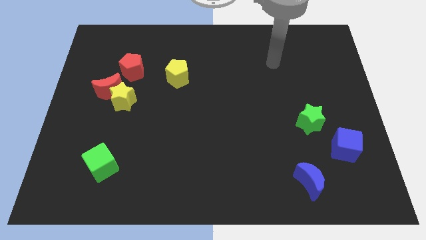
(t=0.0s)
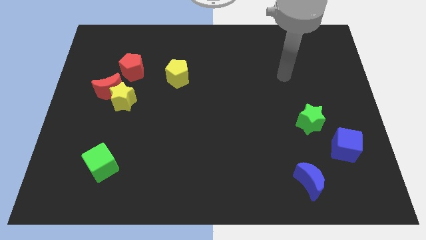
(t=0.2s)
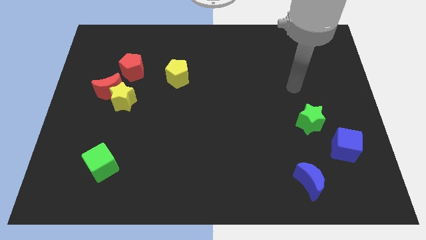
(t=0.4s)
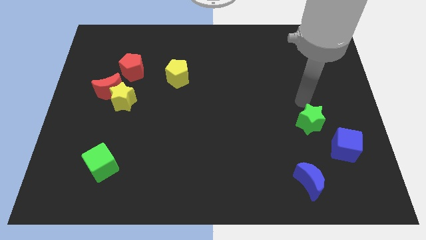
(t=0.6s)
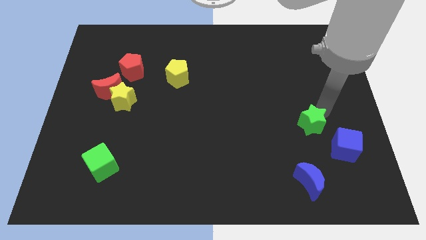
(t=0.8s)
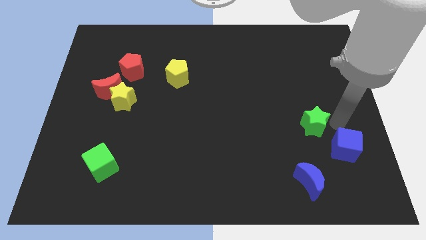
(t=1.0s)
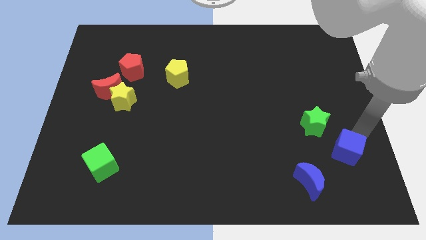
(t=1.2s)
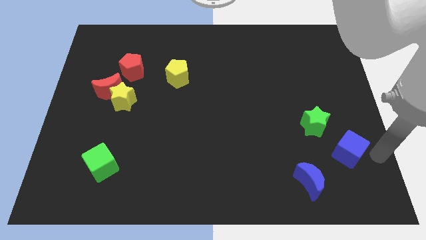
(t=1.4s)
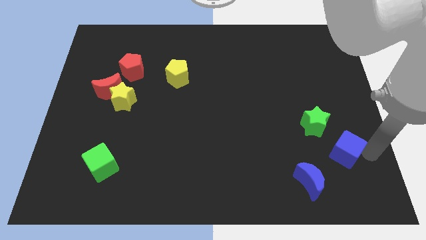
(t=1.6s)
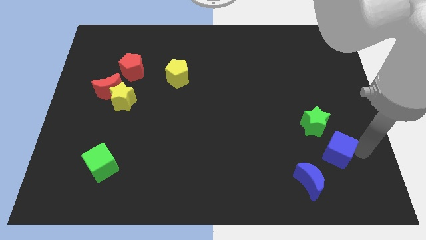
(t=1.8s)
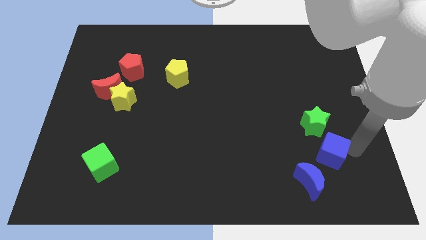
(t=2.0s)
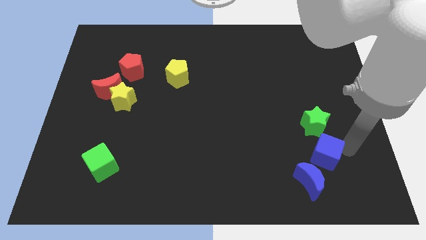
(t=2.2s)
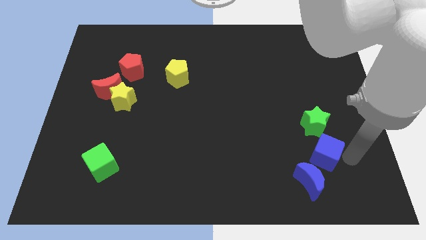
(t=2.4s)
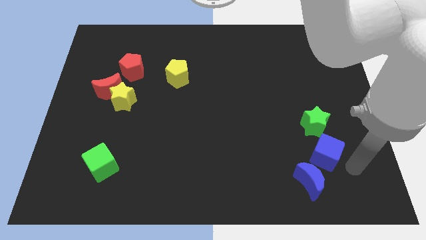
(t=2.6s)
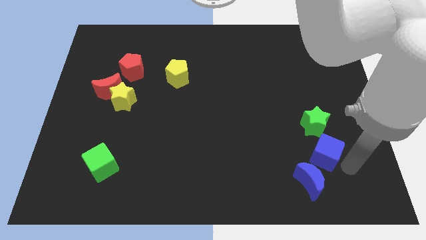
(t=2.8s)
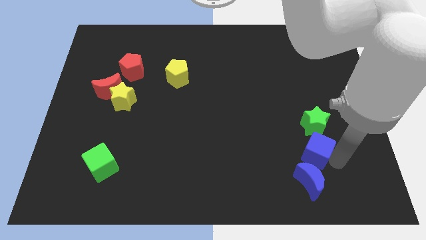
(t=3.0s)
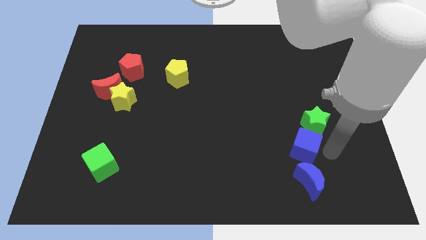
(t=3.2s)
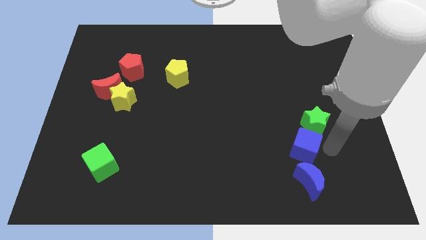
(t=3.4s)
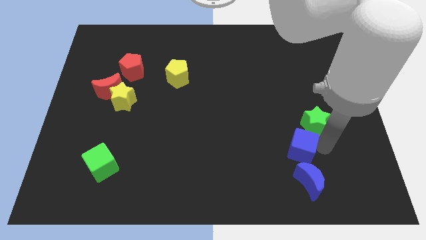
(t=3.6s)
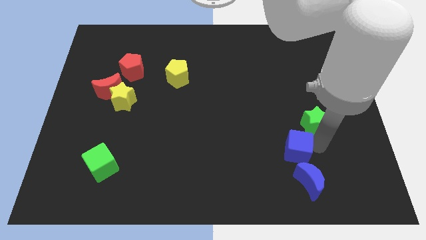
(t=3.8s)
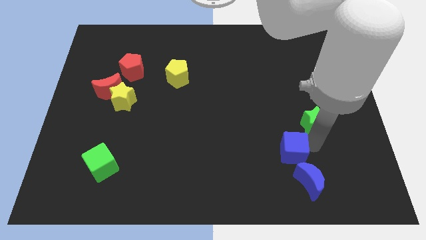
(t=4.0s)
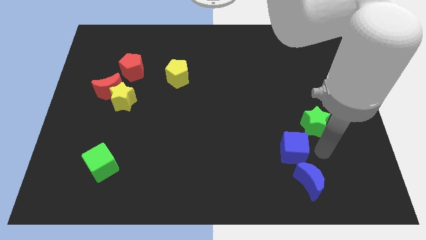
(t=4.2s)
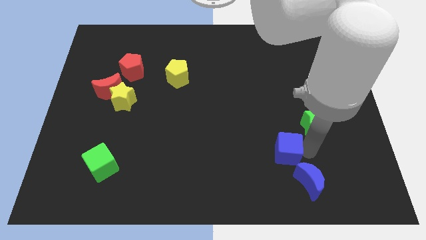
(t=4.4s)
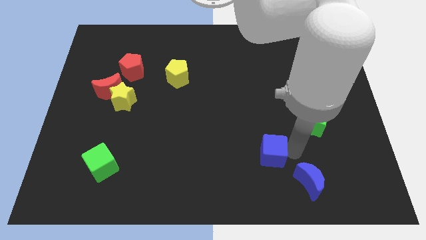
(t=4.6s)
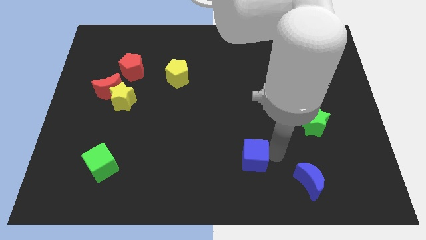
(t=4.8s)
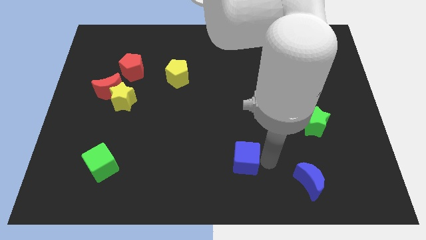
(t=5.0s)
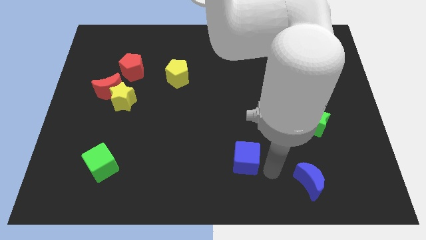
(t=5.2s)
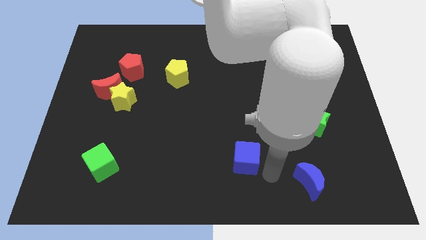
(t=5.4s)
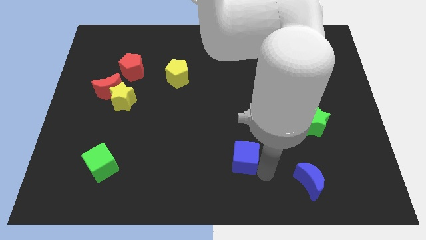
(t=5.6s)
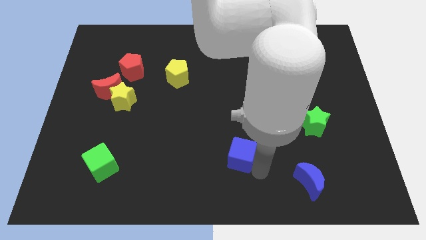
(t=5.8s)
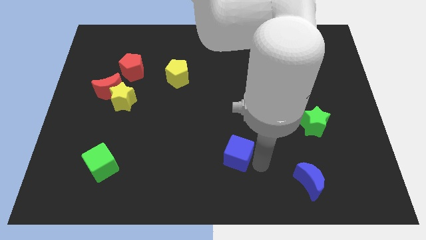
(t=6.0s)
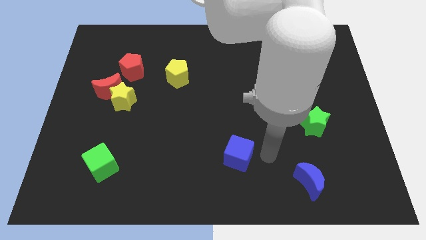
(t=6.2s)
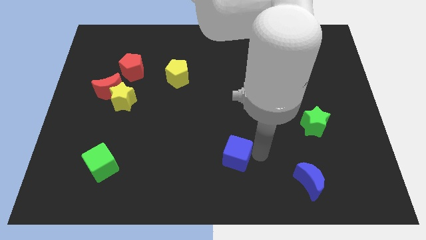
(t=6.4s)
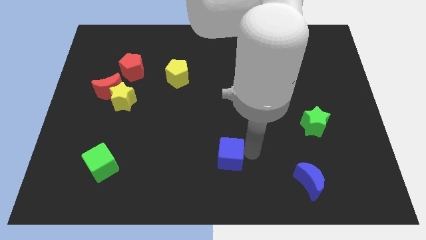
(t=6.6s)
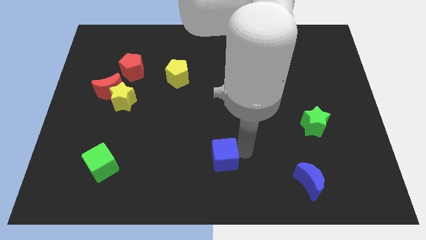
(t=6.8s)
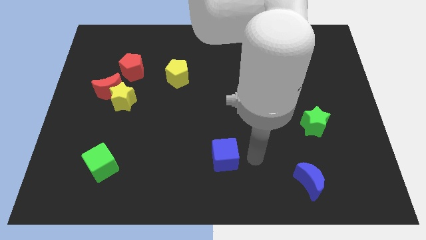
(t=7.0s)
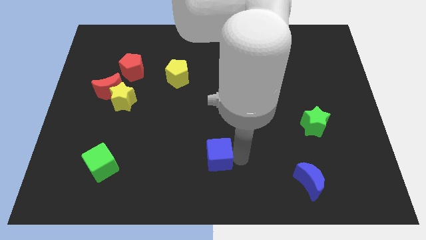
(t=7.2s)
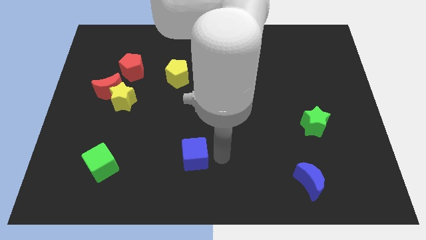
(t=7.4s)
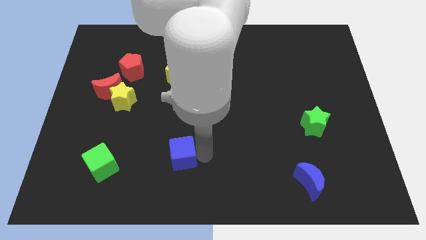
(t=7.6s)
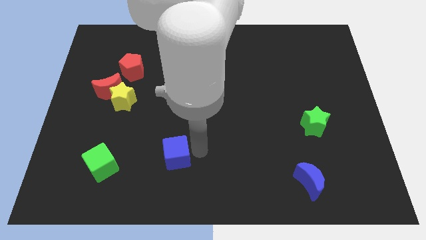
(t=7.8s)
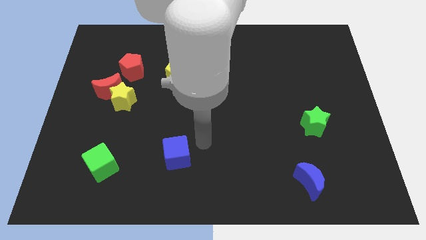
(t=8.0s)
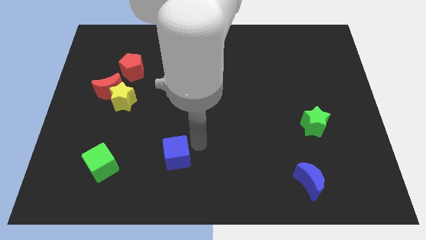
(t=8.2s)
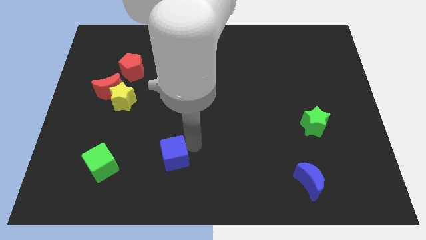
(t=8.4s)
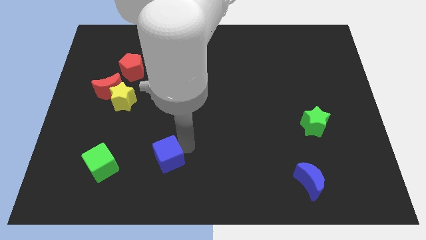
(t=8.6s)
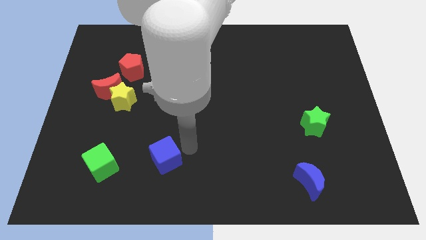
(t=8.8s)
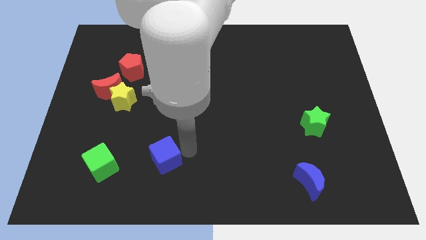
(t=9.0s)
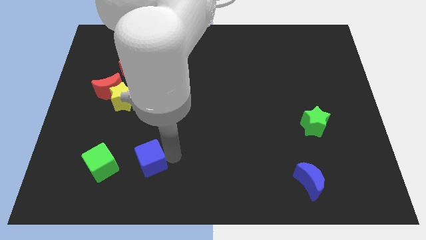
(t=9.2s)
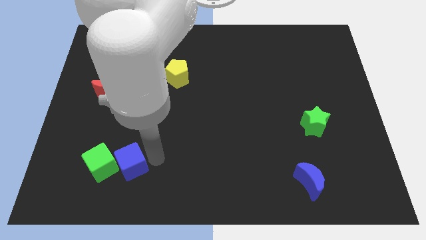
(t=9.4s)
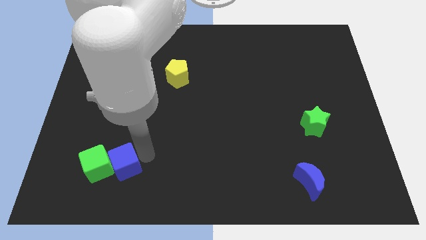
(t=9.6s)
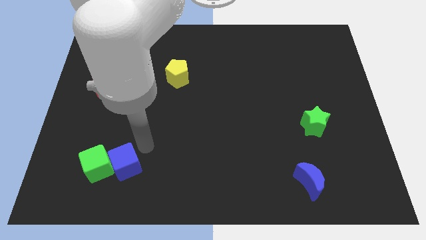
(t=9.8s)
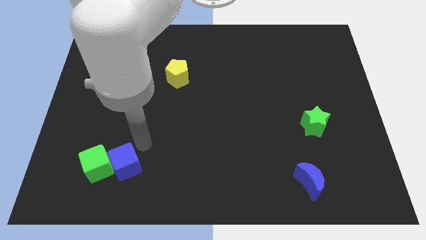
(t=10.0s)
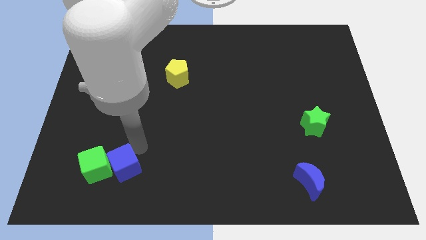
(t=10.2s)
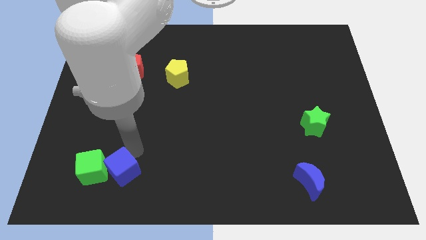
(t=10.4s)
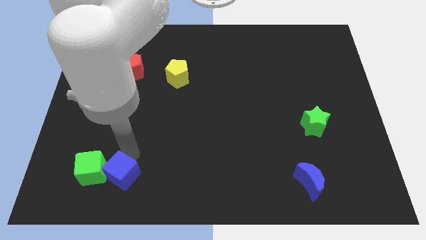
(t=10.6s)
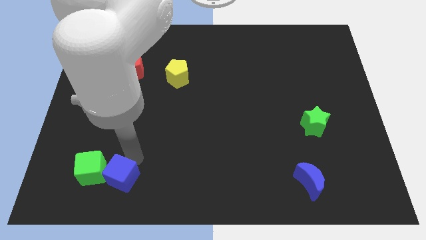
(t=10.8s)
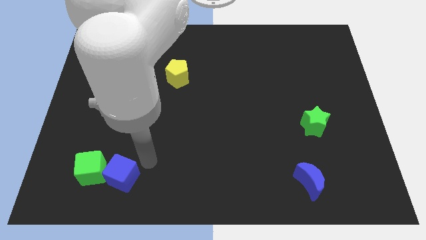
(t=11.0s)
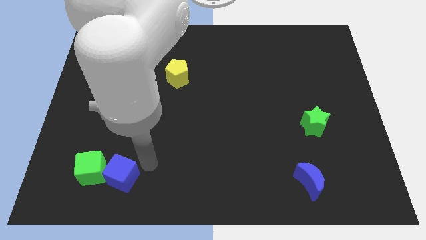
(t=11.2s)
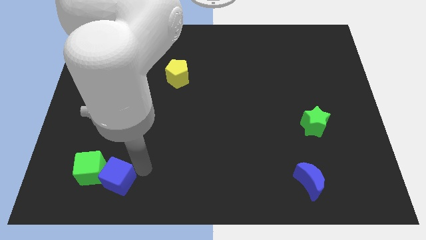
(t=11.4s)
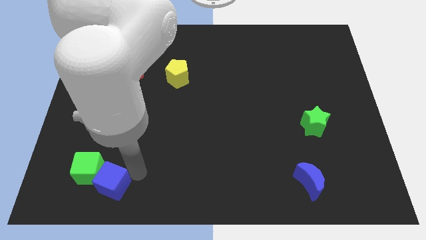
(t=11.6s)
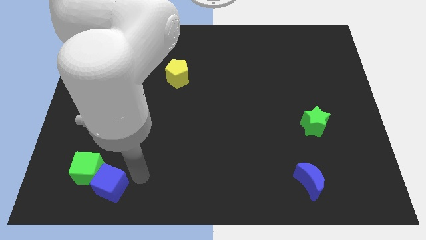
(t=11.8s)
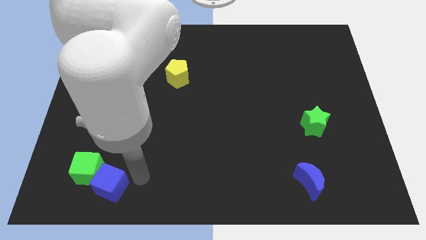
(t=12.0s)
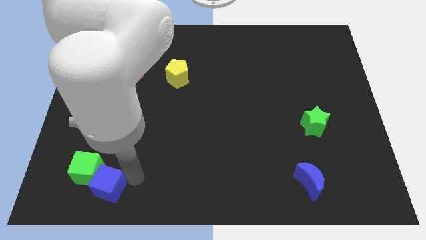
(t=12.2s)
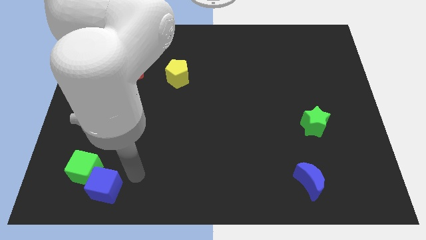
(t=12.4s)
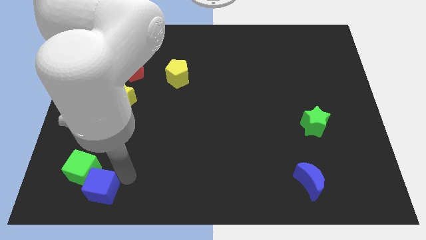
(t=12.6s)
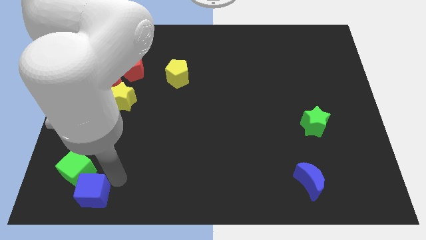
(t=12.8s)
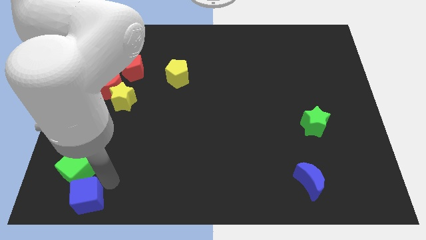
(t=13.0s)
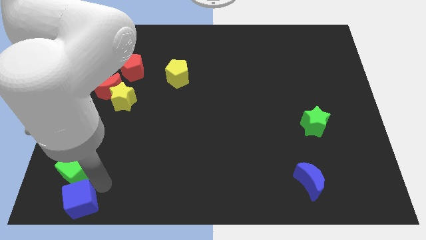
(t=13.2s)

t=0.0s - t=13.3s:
slide the blue cube to the bottom left of the board
